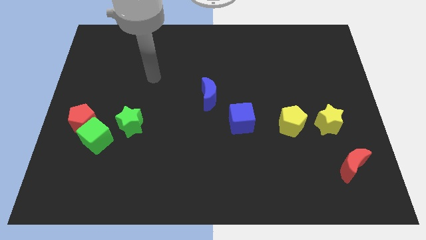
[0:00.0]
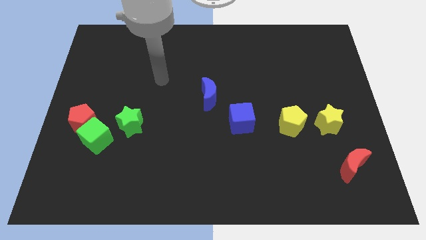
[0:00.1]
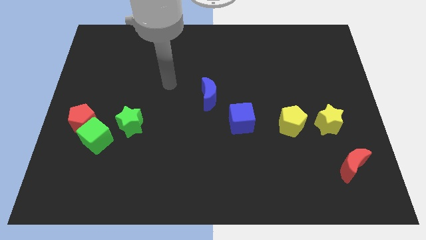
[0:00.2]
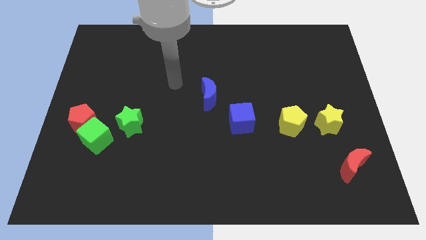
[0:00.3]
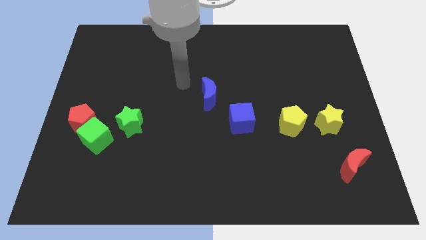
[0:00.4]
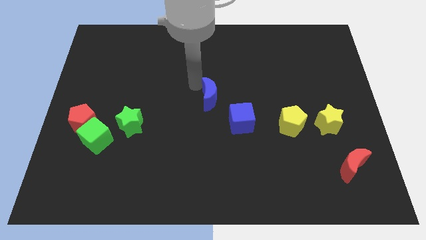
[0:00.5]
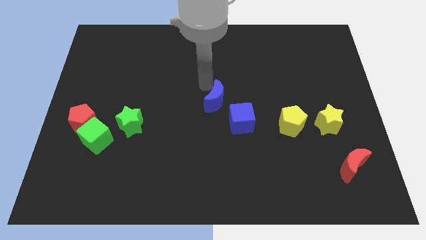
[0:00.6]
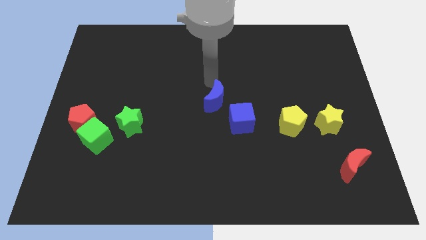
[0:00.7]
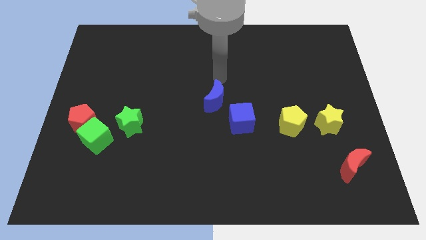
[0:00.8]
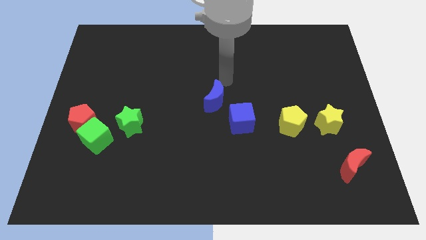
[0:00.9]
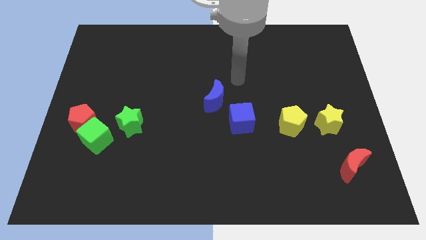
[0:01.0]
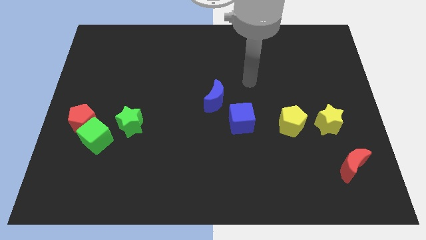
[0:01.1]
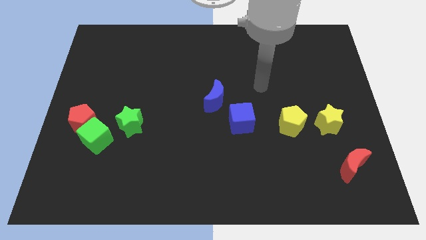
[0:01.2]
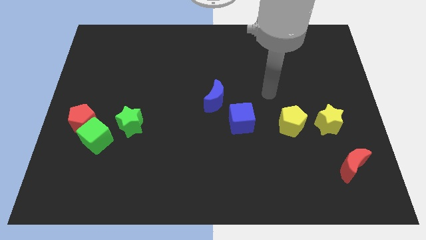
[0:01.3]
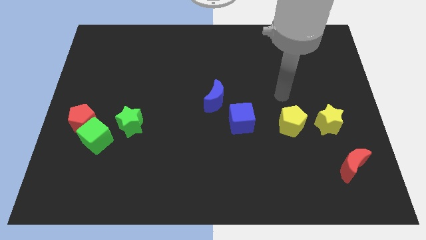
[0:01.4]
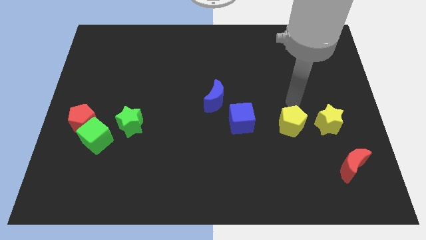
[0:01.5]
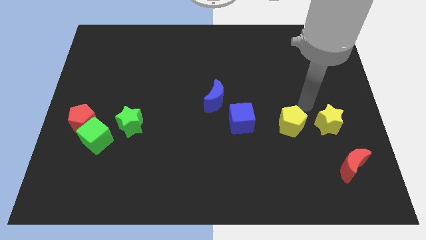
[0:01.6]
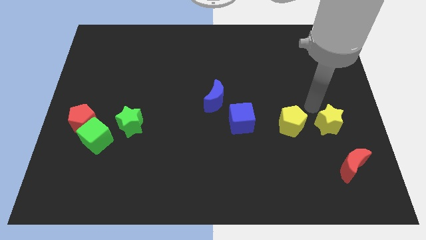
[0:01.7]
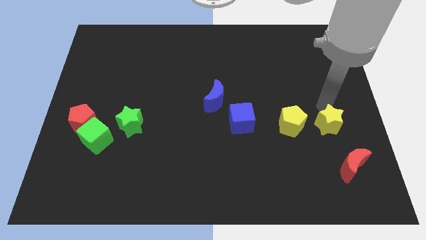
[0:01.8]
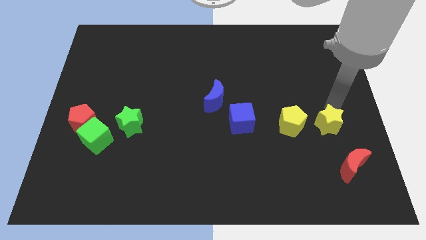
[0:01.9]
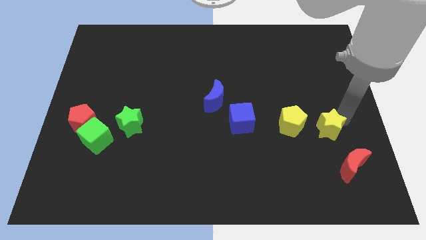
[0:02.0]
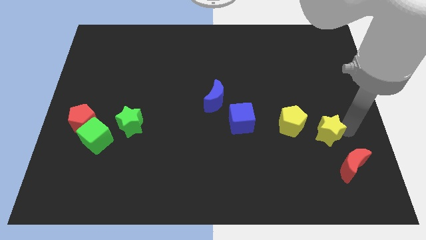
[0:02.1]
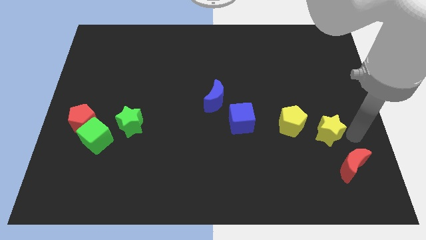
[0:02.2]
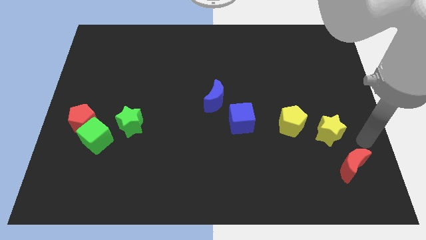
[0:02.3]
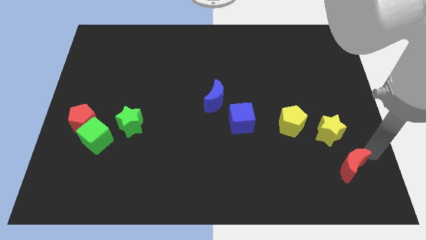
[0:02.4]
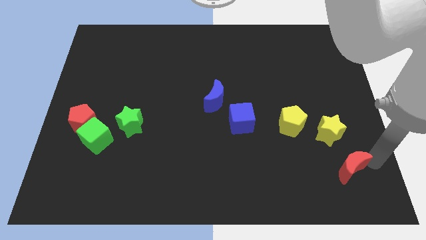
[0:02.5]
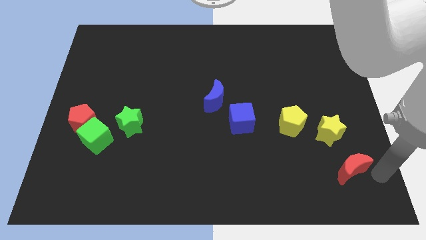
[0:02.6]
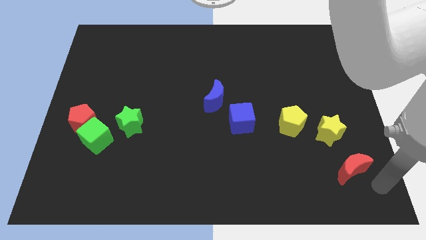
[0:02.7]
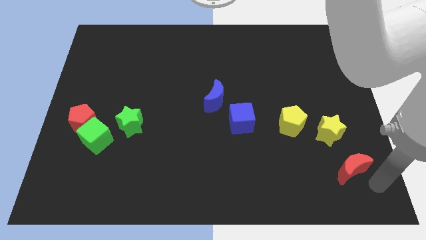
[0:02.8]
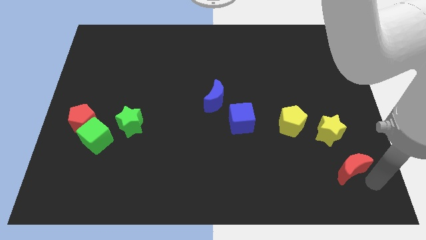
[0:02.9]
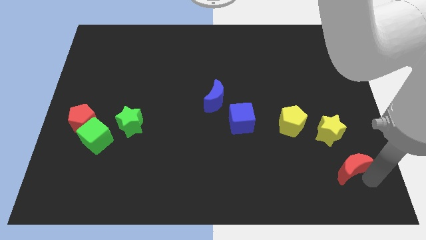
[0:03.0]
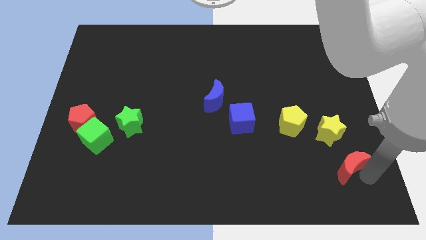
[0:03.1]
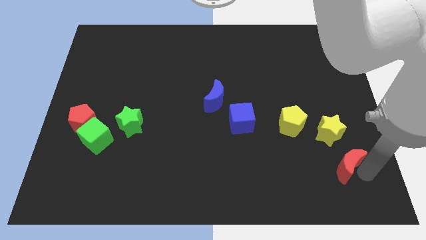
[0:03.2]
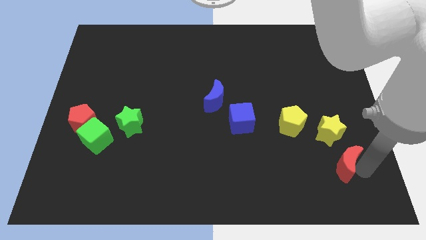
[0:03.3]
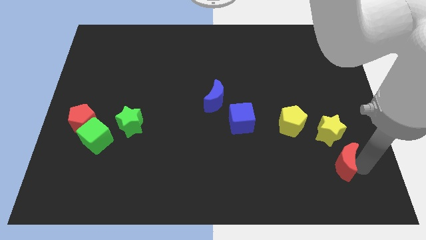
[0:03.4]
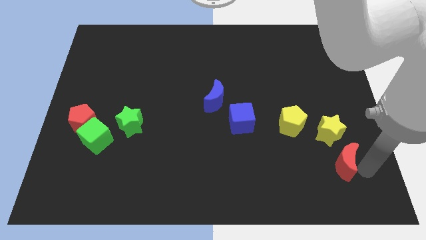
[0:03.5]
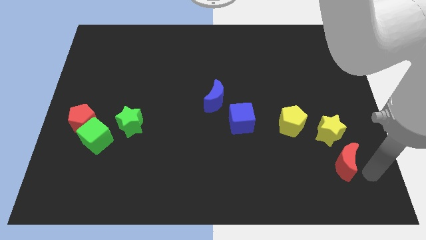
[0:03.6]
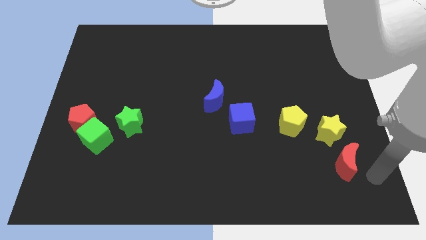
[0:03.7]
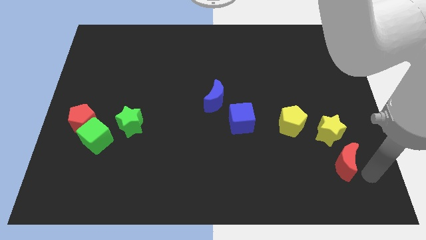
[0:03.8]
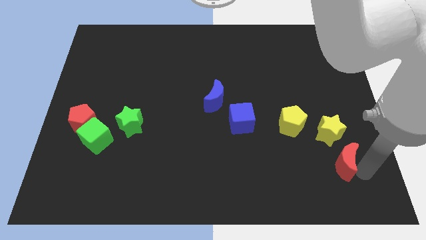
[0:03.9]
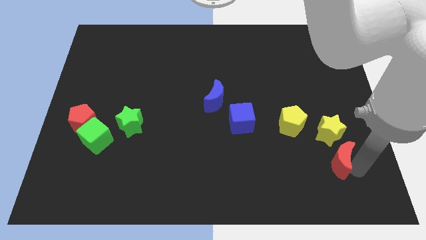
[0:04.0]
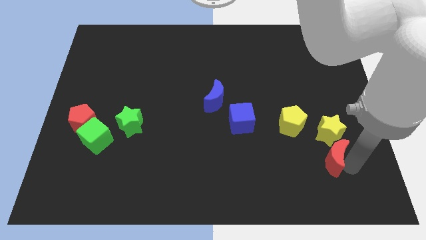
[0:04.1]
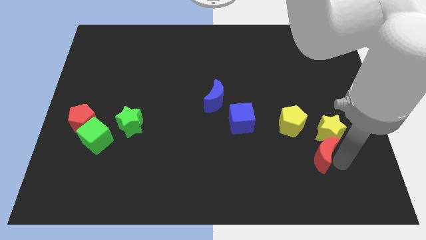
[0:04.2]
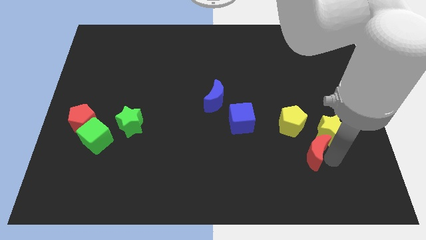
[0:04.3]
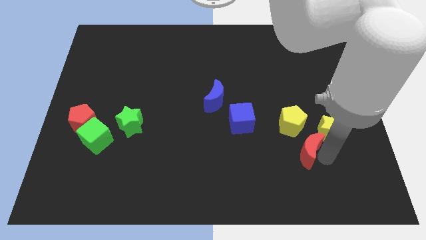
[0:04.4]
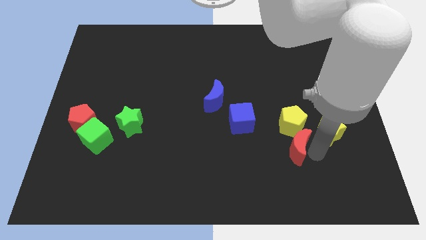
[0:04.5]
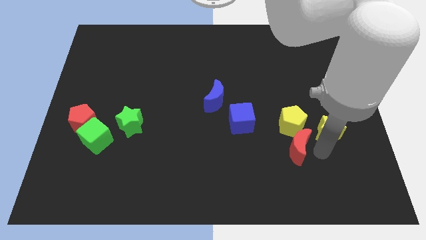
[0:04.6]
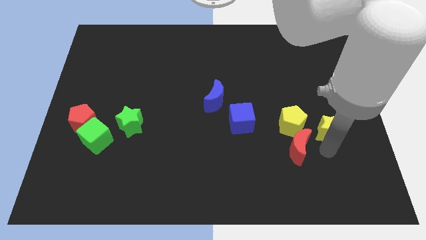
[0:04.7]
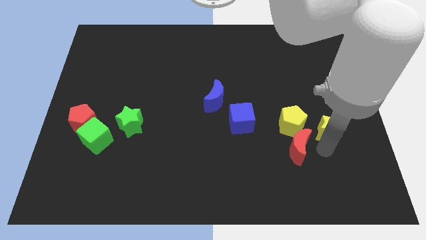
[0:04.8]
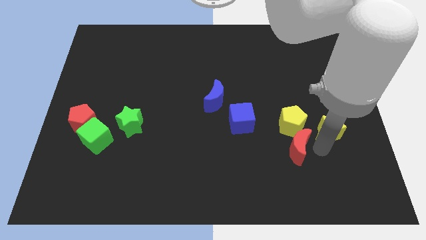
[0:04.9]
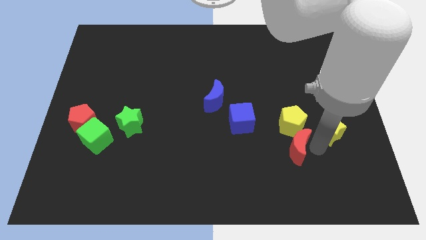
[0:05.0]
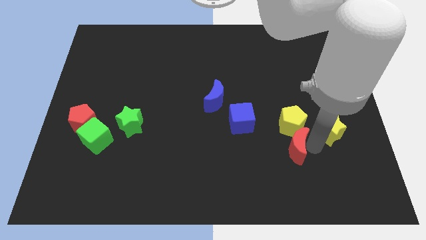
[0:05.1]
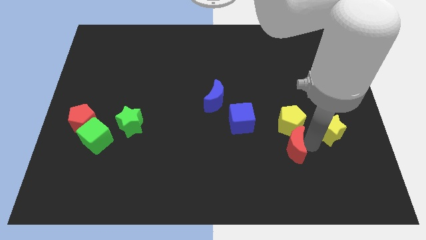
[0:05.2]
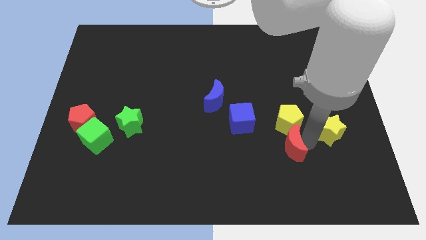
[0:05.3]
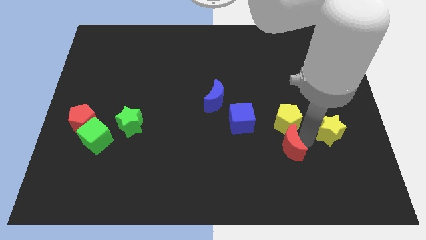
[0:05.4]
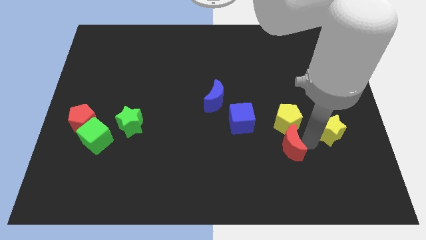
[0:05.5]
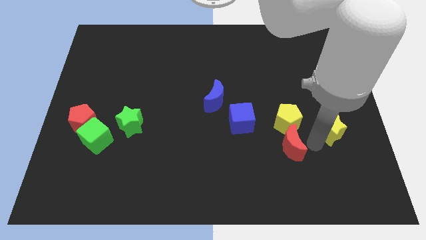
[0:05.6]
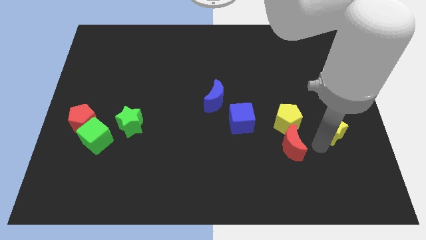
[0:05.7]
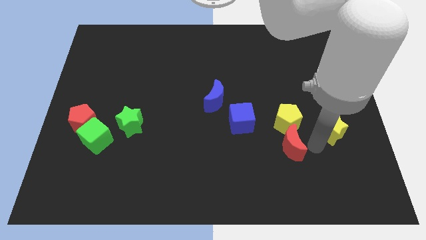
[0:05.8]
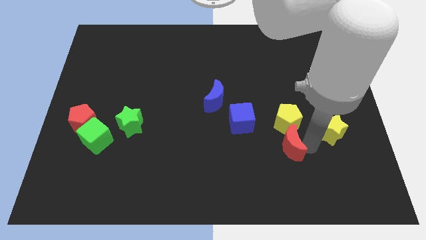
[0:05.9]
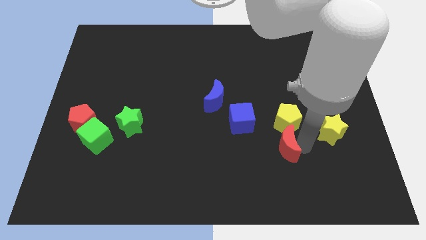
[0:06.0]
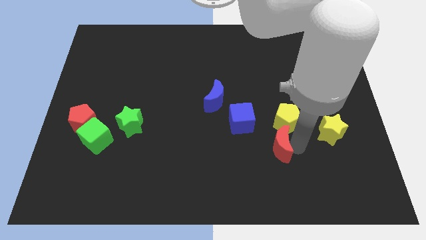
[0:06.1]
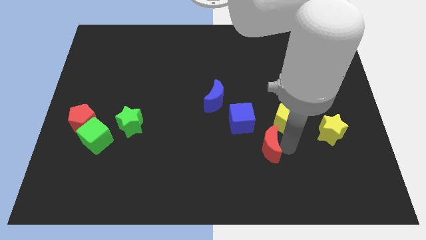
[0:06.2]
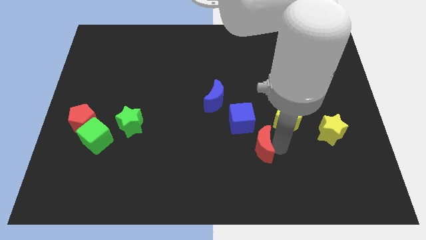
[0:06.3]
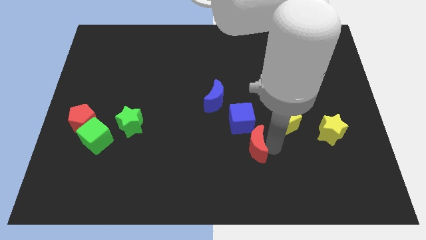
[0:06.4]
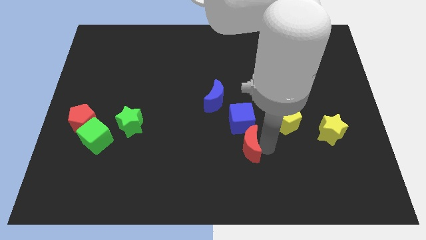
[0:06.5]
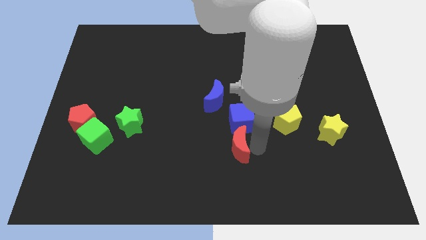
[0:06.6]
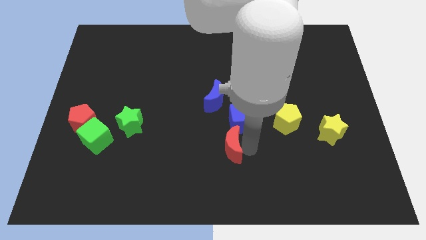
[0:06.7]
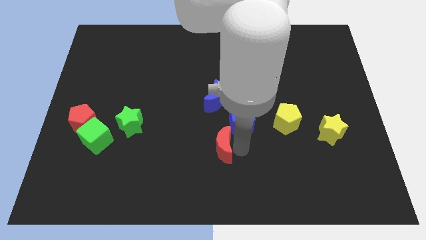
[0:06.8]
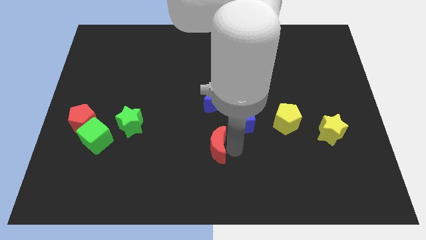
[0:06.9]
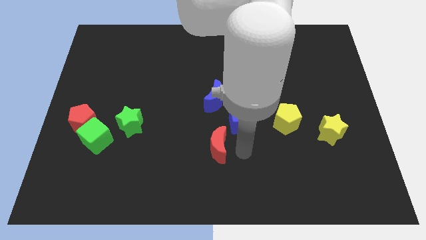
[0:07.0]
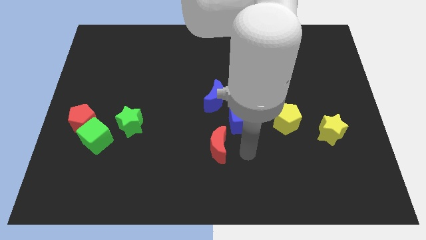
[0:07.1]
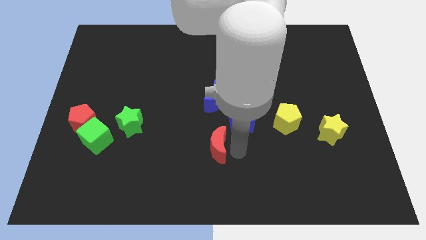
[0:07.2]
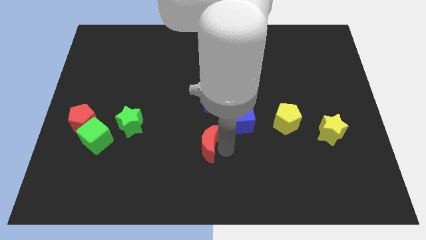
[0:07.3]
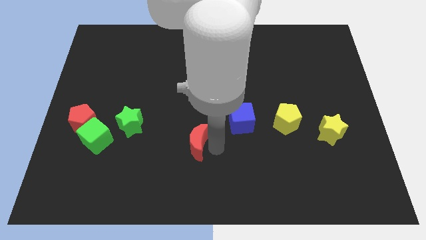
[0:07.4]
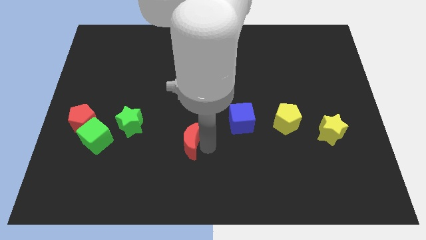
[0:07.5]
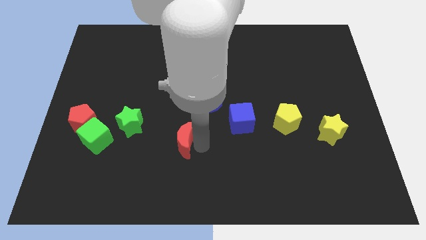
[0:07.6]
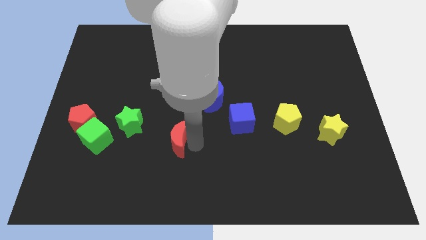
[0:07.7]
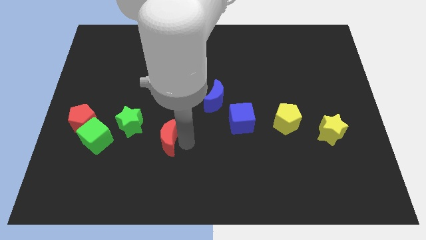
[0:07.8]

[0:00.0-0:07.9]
slide the red moon to the right of the green cube
